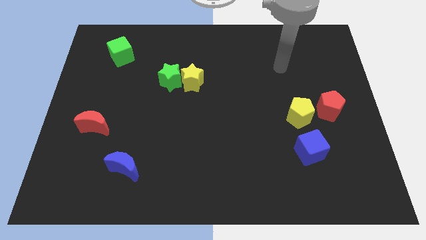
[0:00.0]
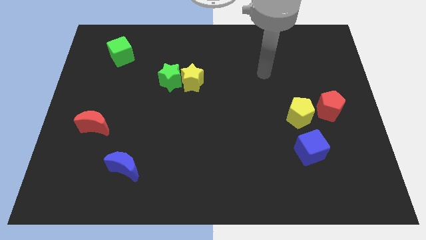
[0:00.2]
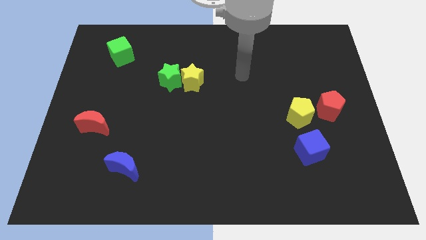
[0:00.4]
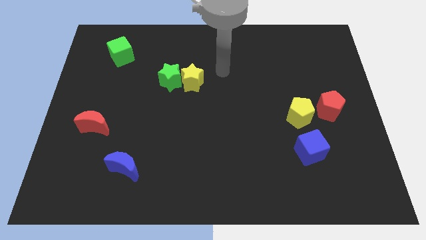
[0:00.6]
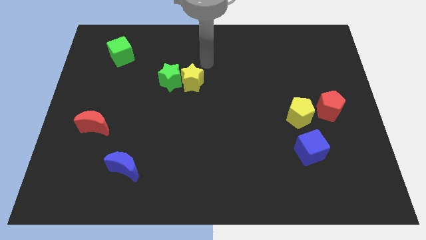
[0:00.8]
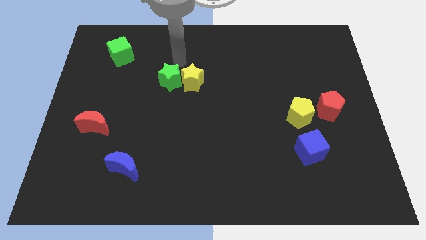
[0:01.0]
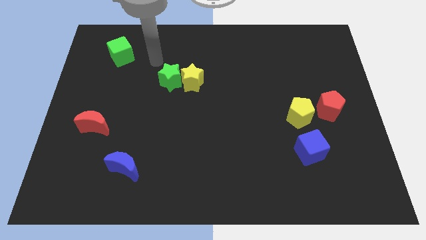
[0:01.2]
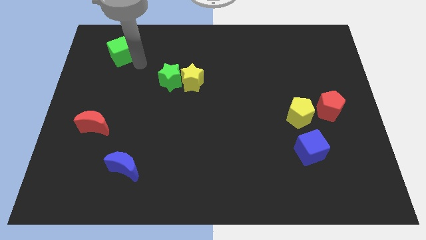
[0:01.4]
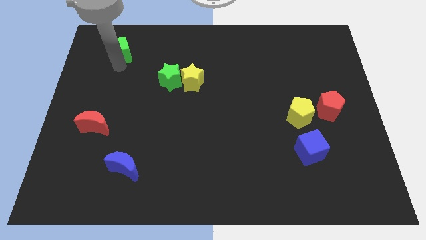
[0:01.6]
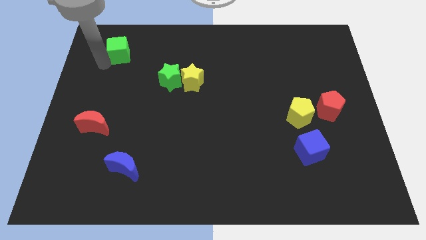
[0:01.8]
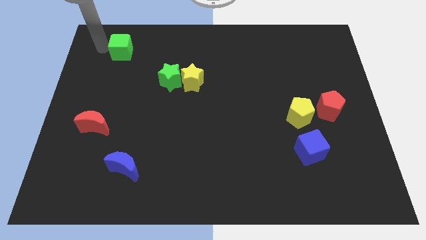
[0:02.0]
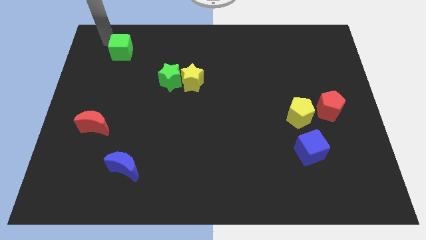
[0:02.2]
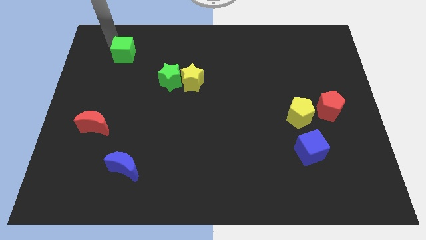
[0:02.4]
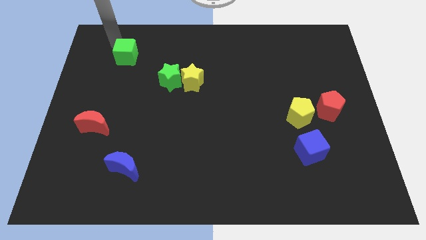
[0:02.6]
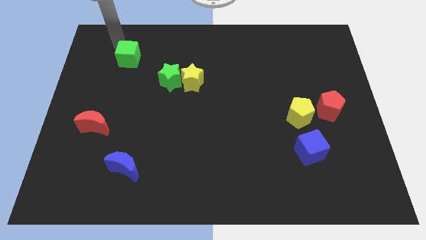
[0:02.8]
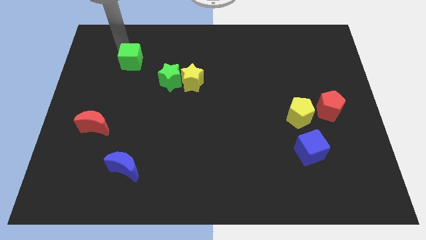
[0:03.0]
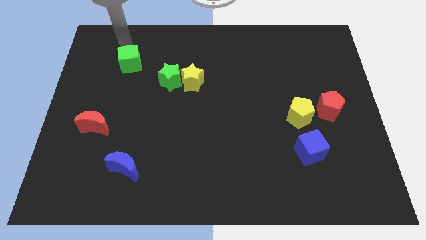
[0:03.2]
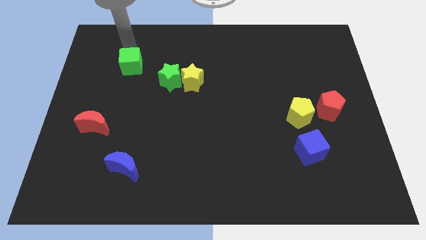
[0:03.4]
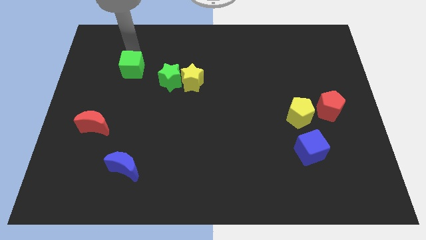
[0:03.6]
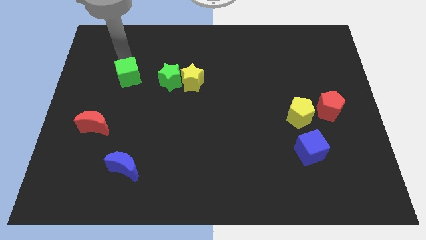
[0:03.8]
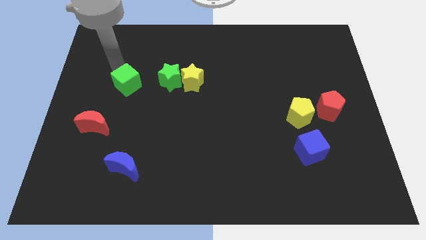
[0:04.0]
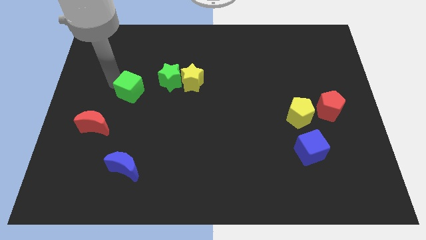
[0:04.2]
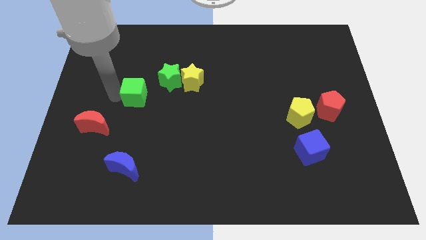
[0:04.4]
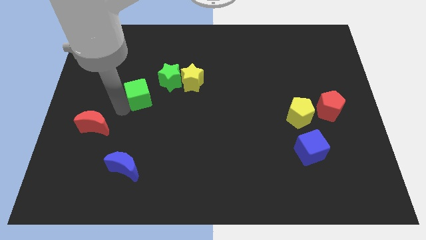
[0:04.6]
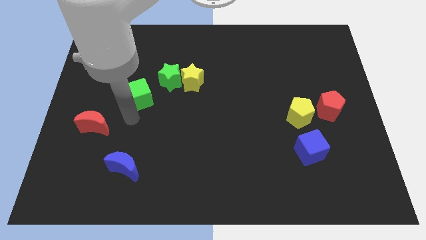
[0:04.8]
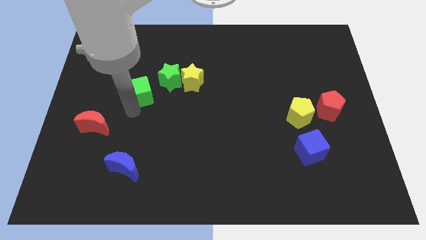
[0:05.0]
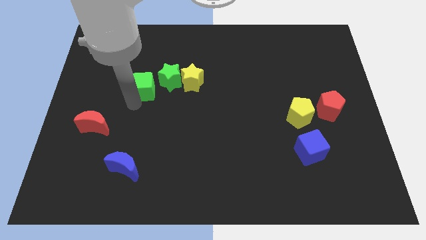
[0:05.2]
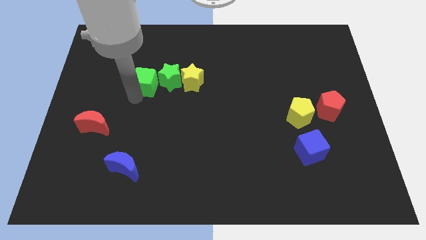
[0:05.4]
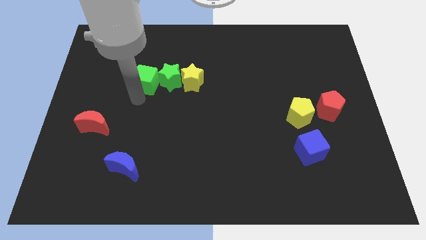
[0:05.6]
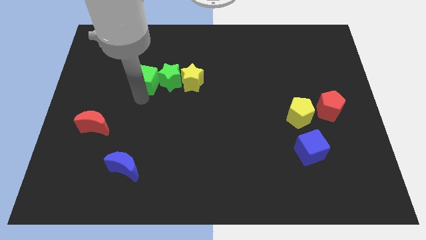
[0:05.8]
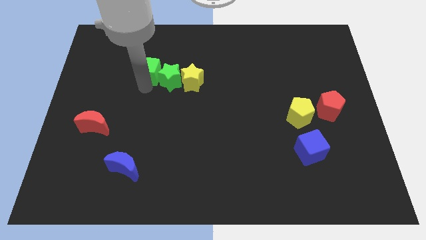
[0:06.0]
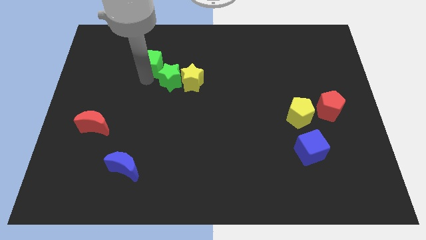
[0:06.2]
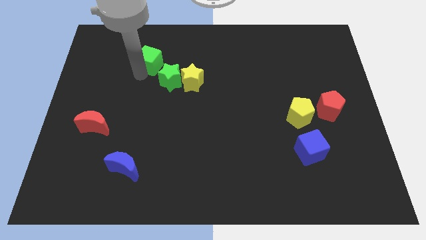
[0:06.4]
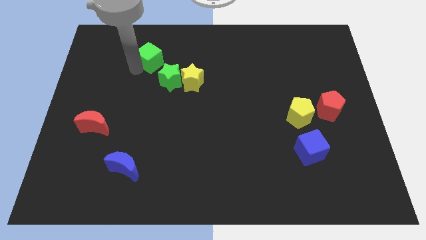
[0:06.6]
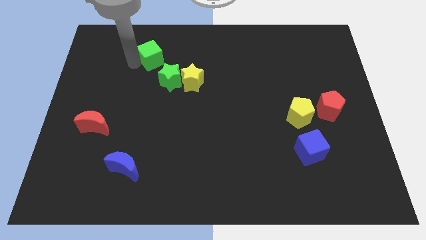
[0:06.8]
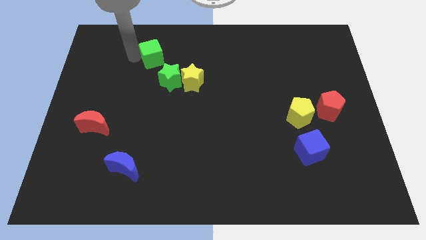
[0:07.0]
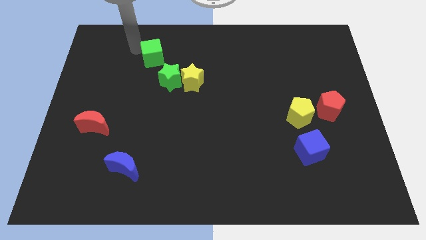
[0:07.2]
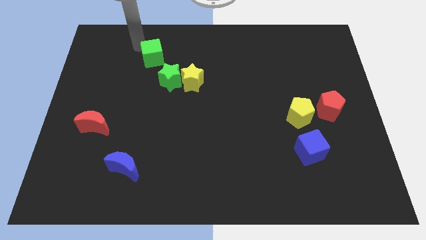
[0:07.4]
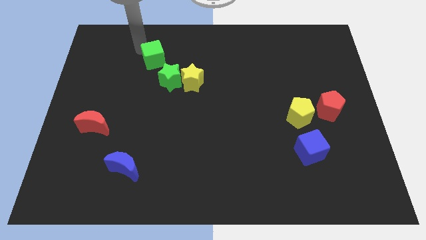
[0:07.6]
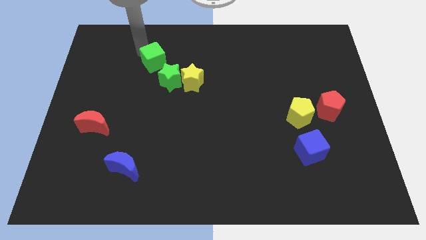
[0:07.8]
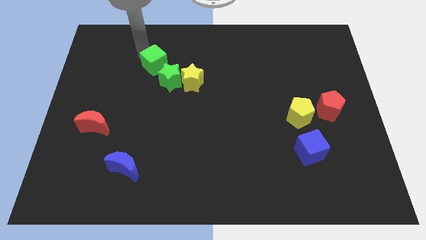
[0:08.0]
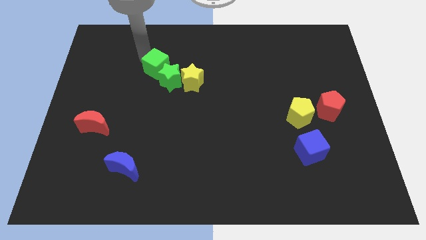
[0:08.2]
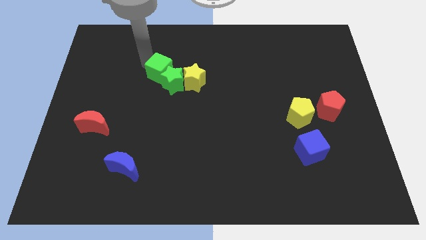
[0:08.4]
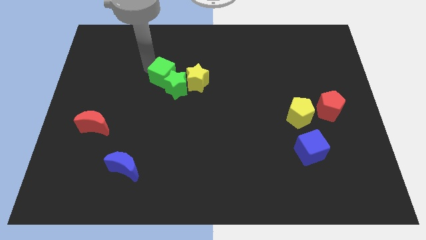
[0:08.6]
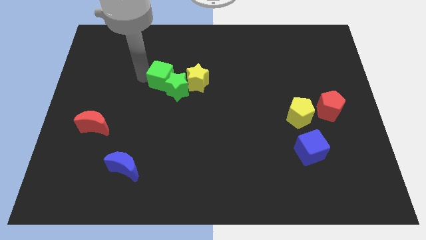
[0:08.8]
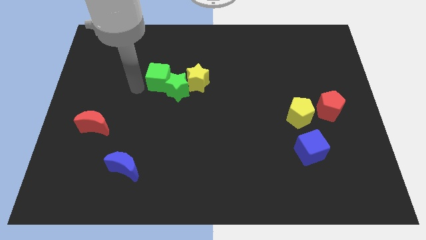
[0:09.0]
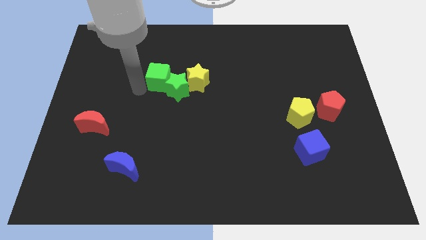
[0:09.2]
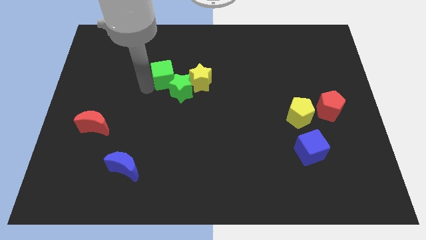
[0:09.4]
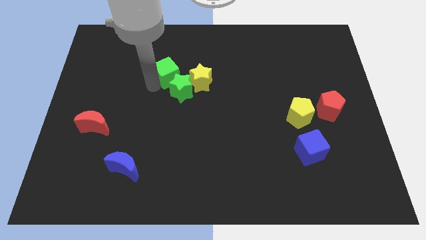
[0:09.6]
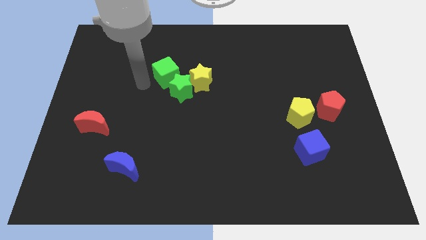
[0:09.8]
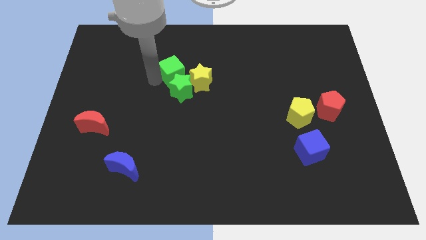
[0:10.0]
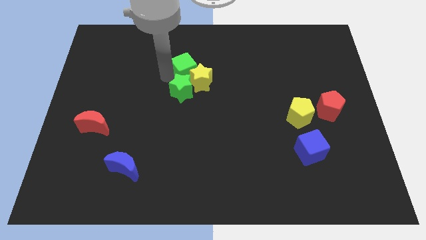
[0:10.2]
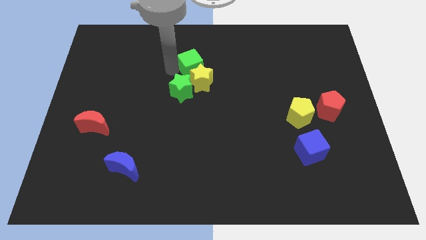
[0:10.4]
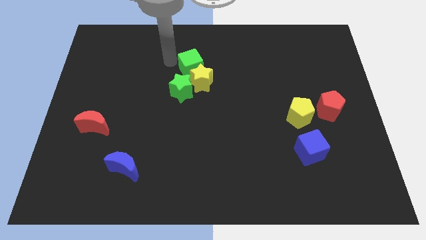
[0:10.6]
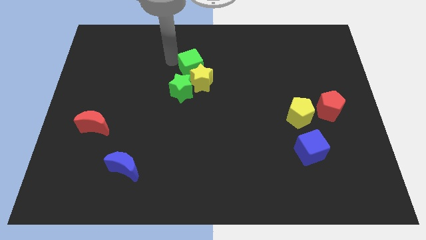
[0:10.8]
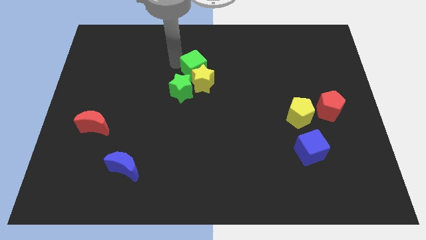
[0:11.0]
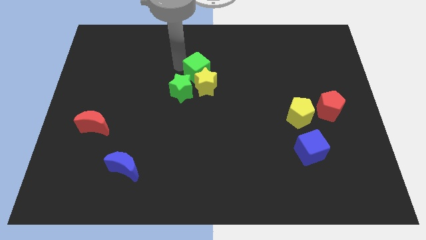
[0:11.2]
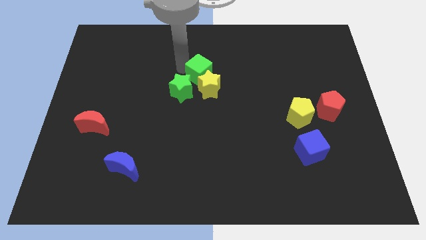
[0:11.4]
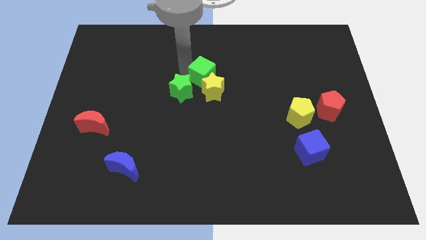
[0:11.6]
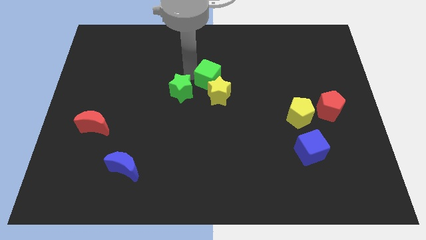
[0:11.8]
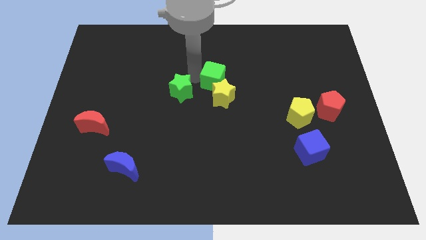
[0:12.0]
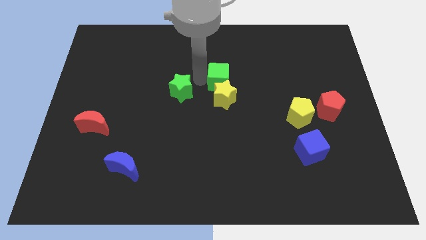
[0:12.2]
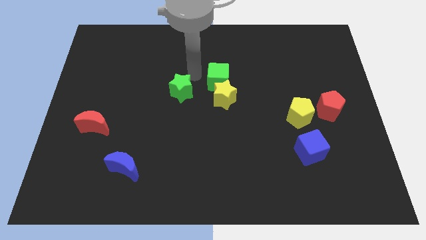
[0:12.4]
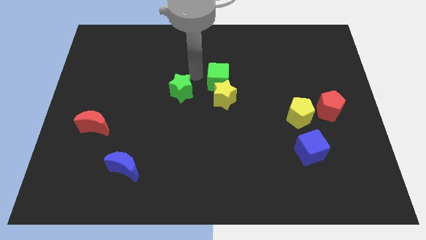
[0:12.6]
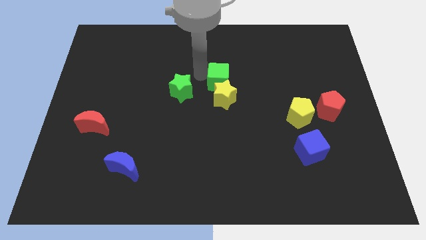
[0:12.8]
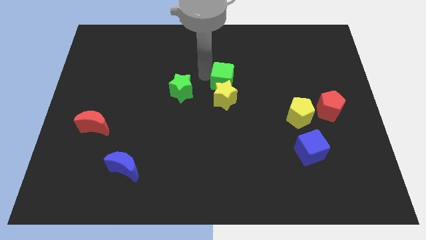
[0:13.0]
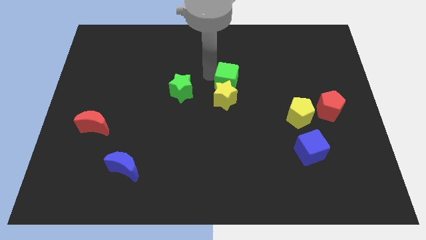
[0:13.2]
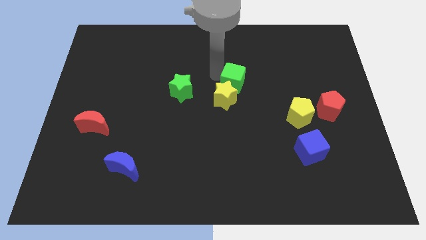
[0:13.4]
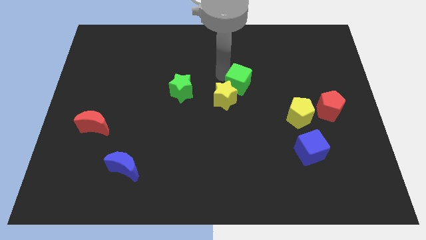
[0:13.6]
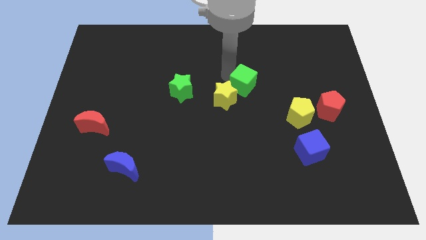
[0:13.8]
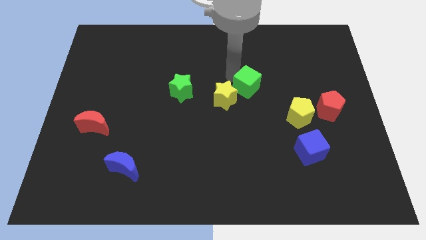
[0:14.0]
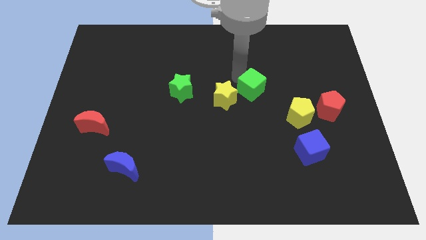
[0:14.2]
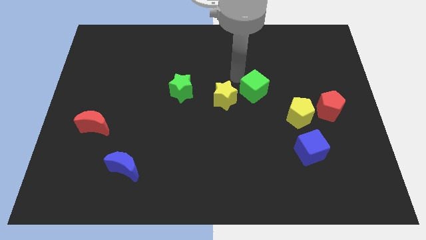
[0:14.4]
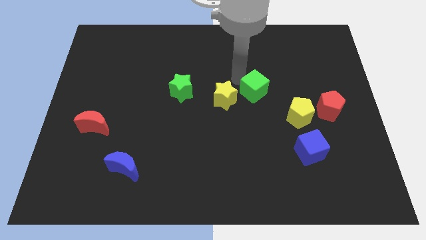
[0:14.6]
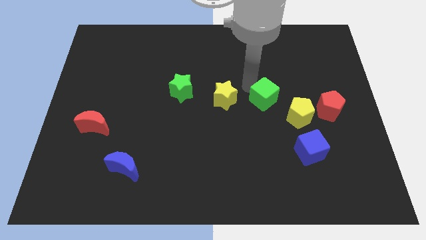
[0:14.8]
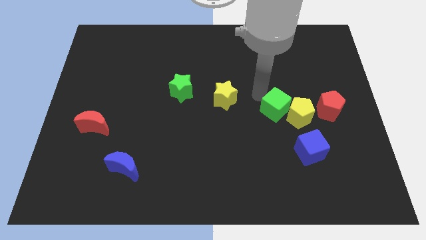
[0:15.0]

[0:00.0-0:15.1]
put the green cube next to the yellow pentagon

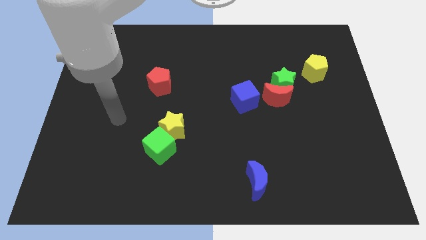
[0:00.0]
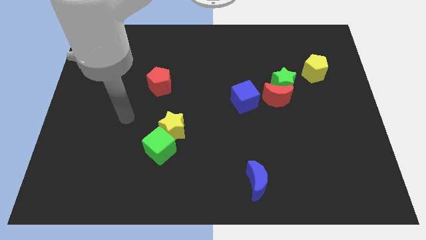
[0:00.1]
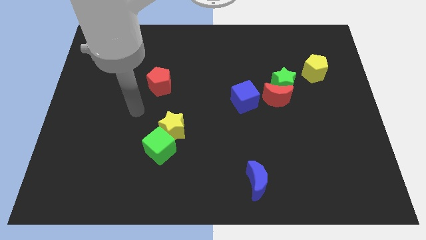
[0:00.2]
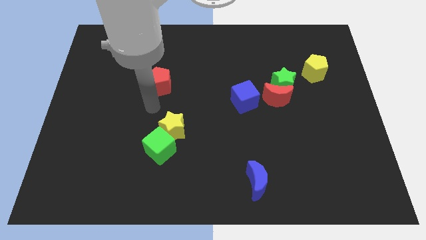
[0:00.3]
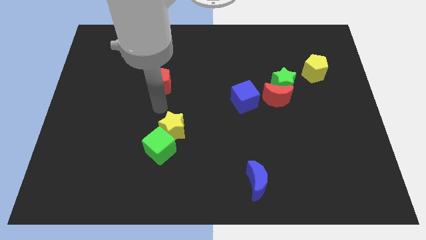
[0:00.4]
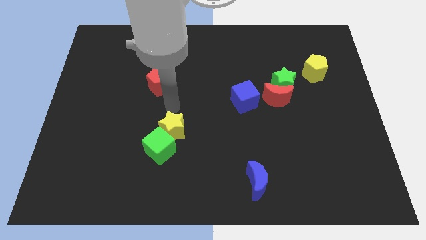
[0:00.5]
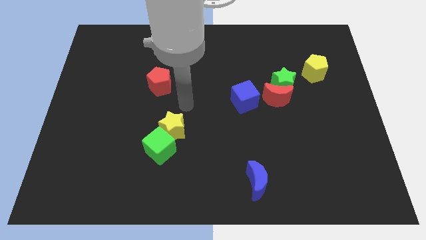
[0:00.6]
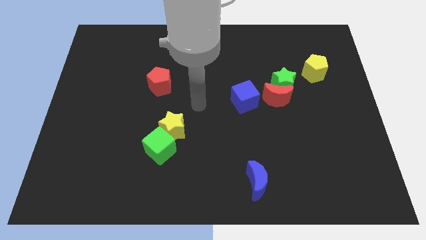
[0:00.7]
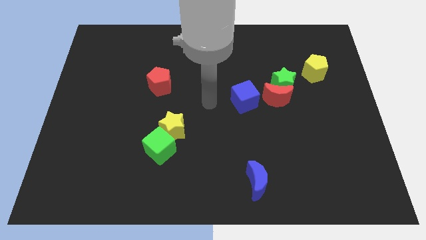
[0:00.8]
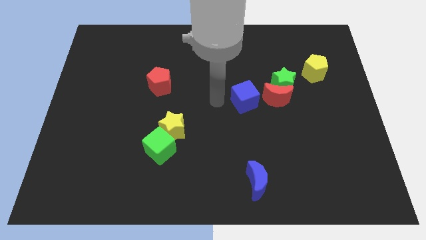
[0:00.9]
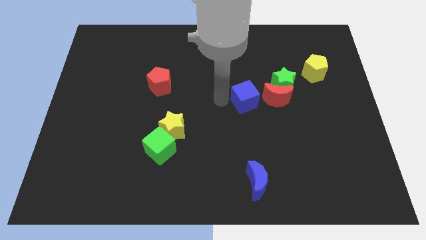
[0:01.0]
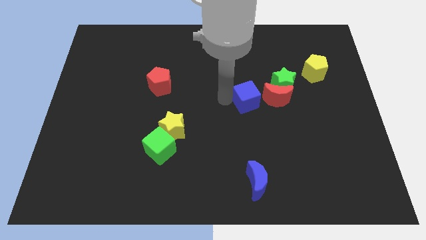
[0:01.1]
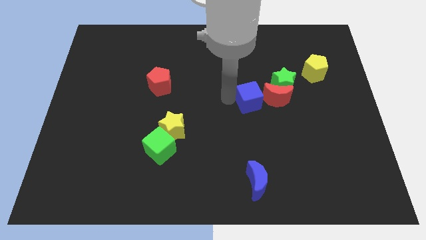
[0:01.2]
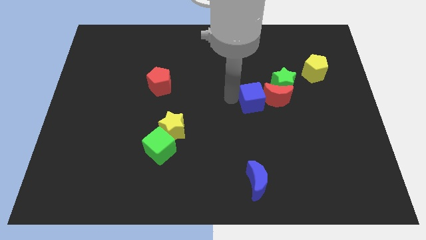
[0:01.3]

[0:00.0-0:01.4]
push the blue cube next to the red moon
